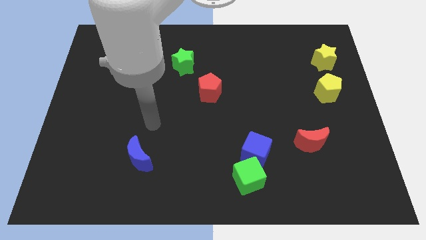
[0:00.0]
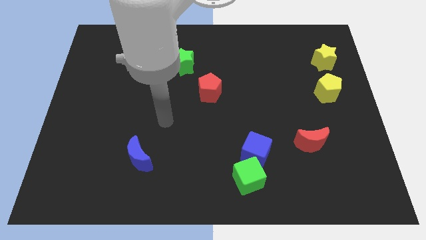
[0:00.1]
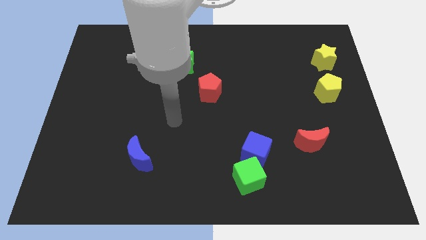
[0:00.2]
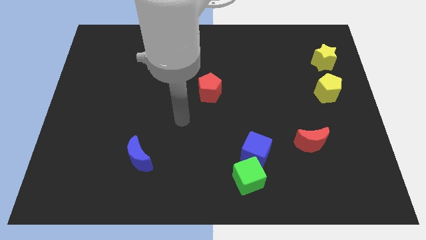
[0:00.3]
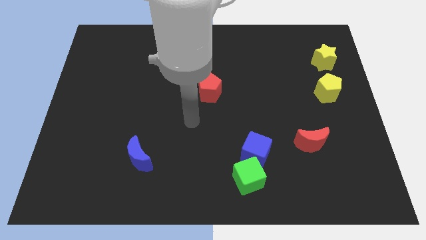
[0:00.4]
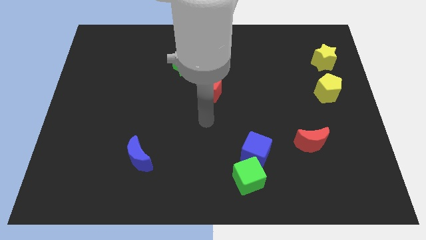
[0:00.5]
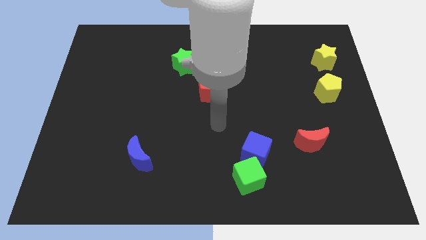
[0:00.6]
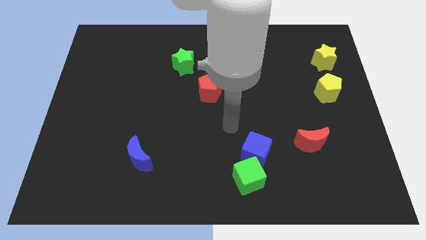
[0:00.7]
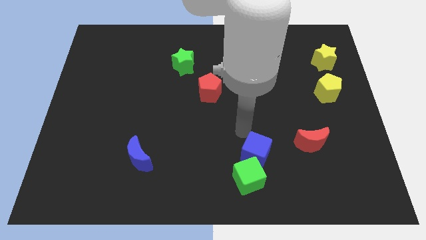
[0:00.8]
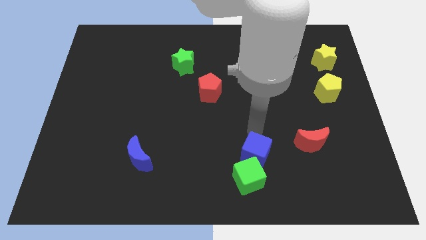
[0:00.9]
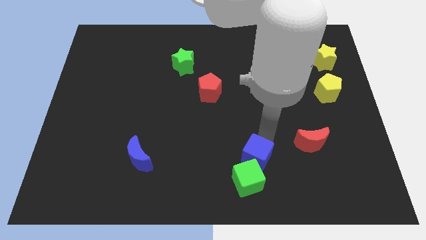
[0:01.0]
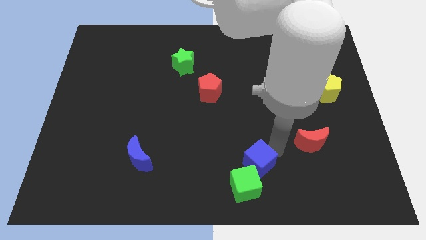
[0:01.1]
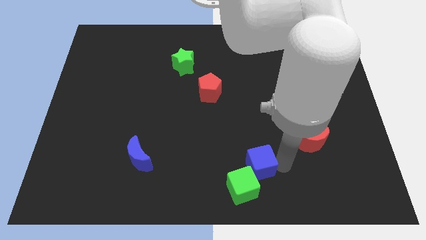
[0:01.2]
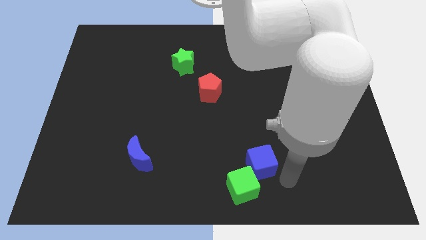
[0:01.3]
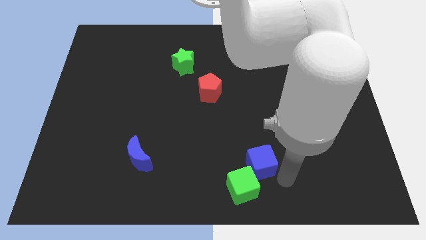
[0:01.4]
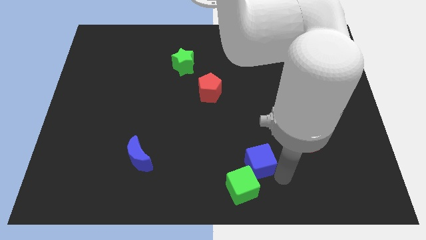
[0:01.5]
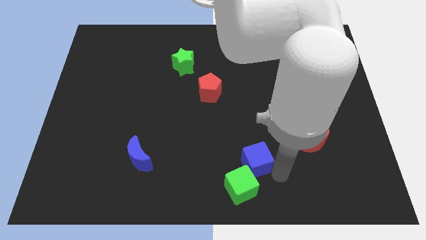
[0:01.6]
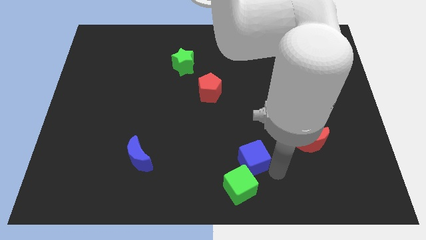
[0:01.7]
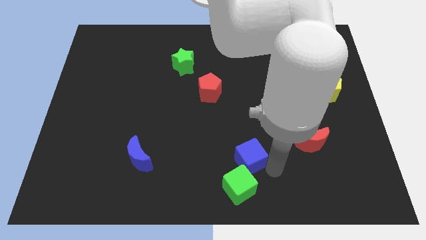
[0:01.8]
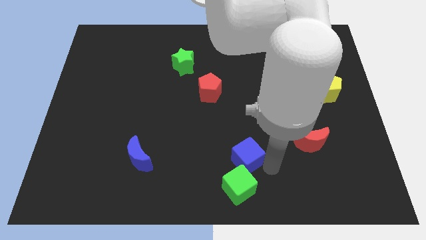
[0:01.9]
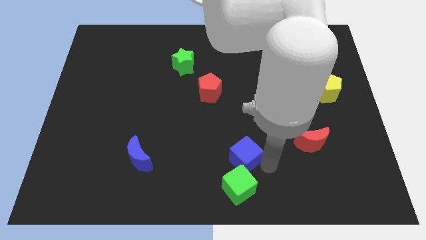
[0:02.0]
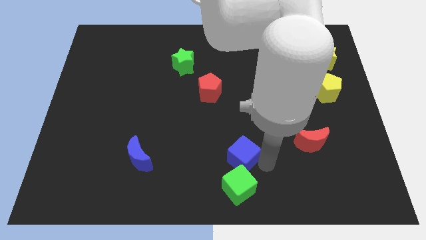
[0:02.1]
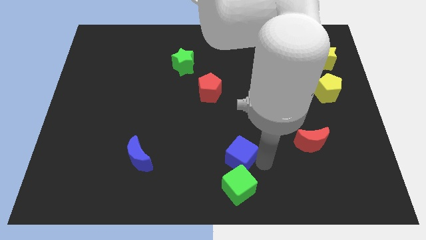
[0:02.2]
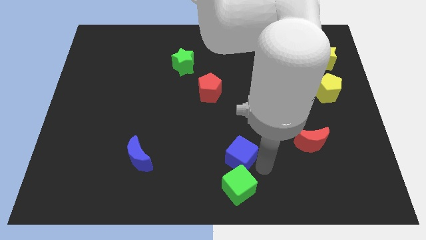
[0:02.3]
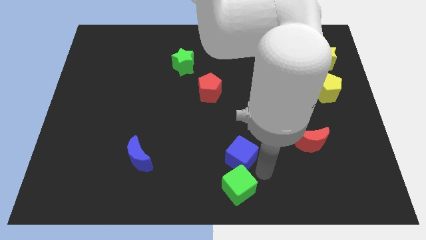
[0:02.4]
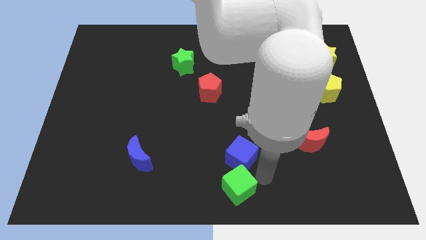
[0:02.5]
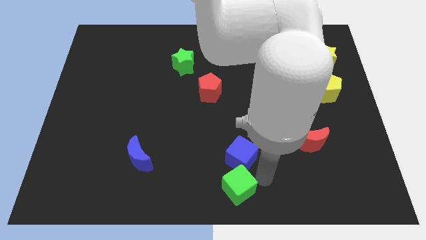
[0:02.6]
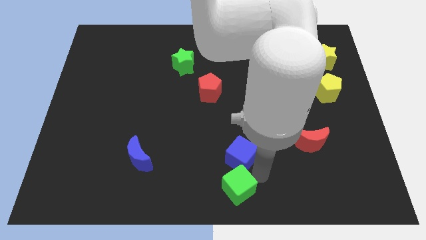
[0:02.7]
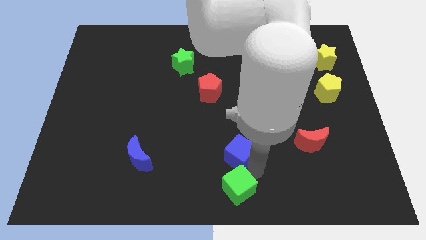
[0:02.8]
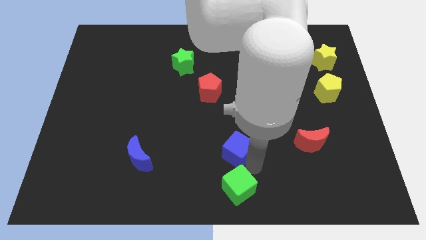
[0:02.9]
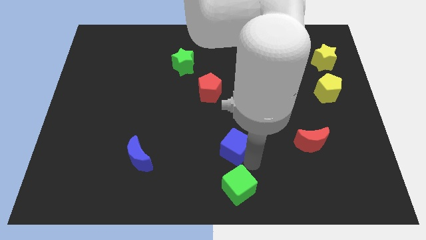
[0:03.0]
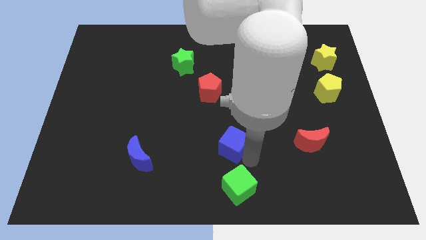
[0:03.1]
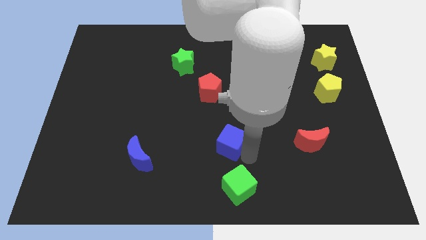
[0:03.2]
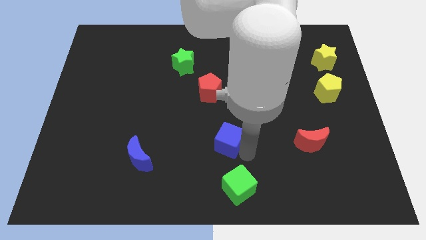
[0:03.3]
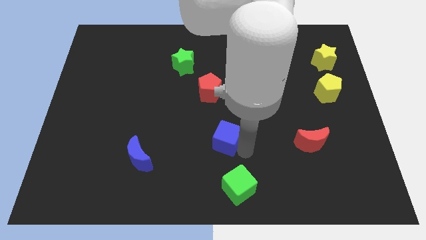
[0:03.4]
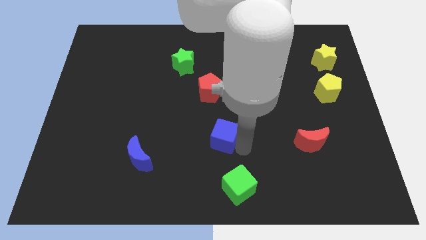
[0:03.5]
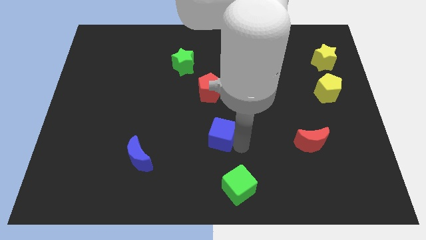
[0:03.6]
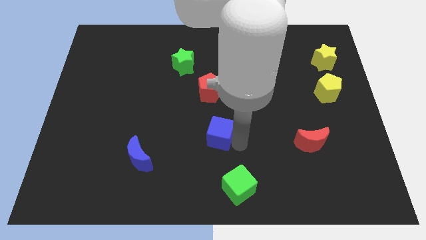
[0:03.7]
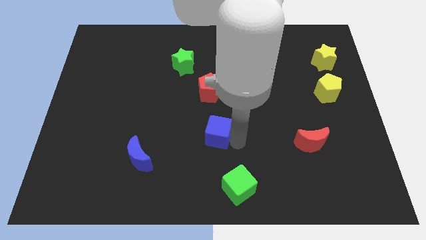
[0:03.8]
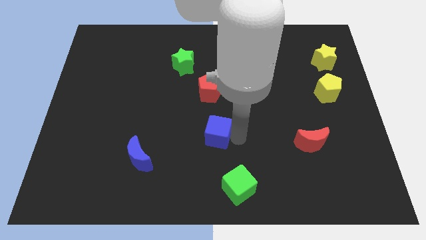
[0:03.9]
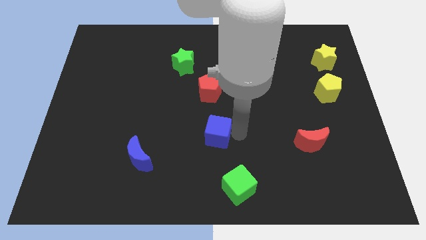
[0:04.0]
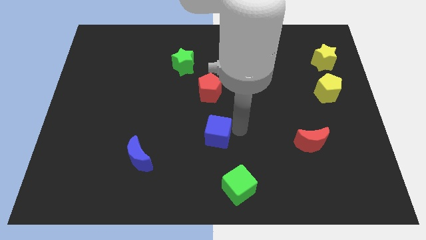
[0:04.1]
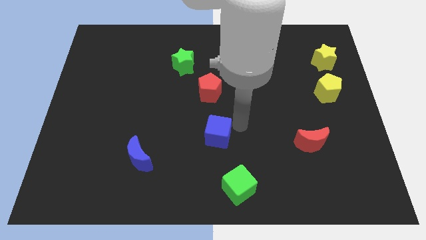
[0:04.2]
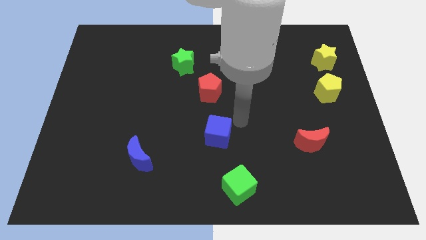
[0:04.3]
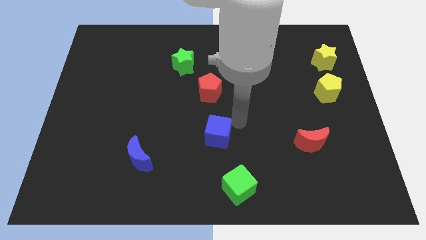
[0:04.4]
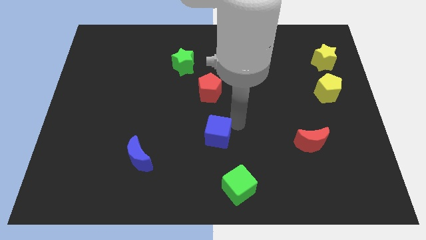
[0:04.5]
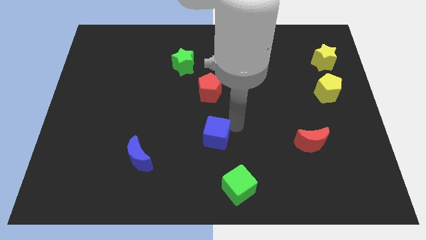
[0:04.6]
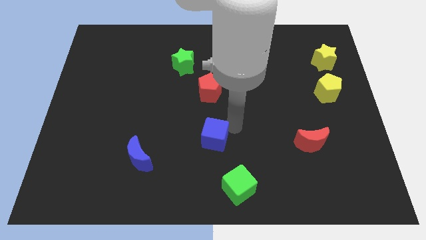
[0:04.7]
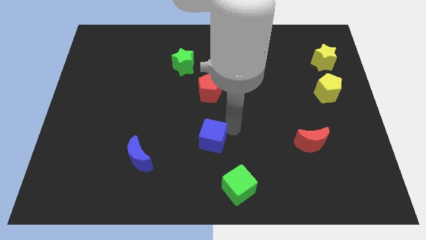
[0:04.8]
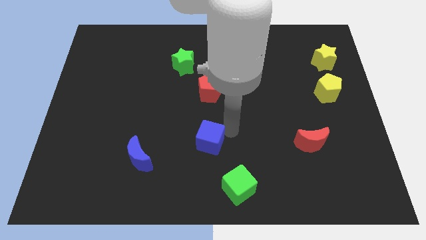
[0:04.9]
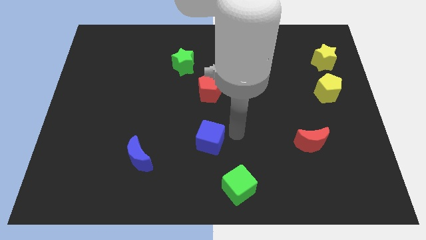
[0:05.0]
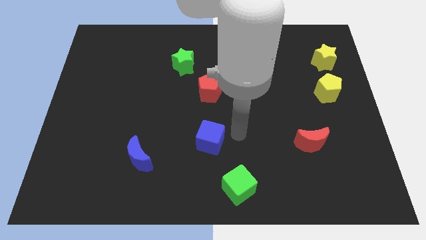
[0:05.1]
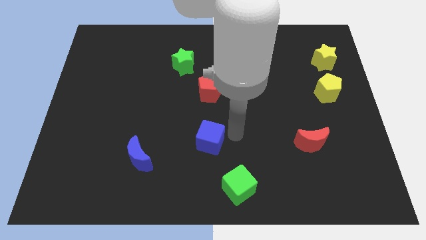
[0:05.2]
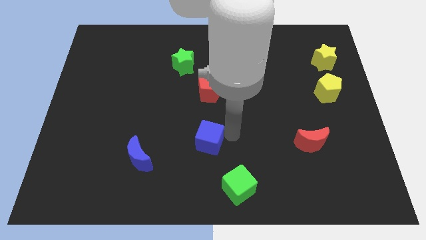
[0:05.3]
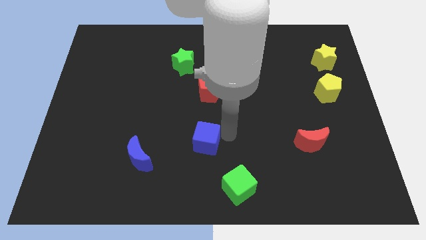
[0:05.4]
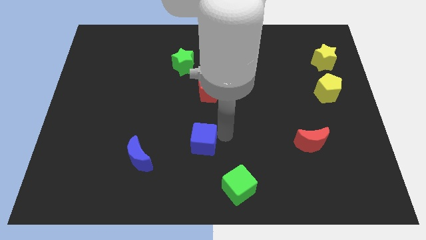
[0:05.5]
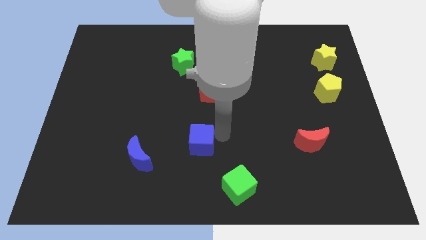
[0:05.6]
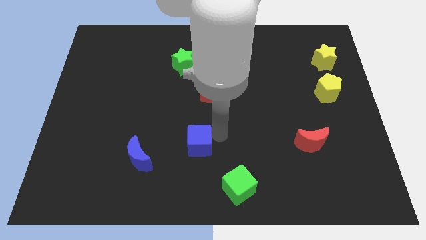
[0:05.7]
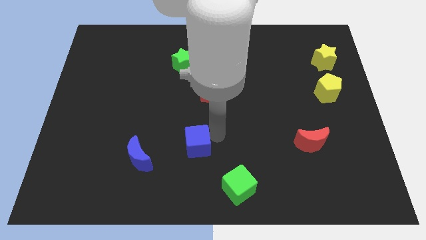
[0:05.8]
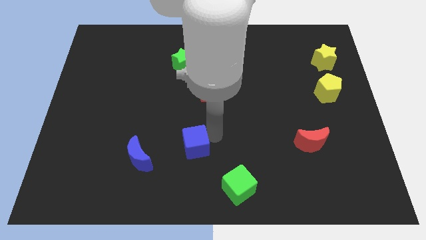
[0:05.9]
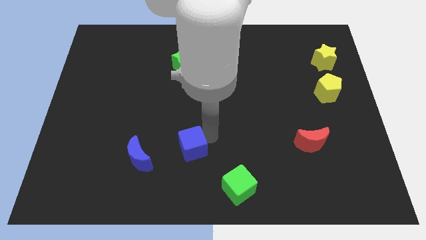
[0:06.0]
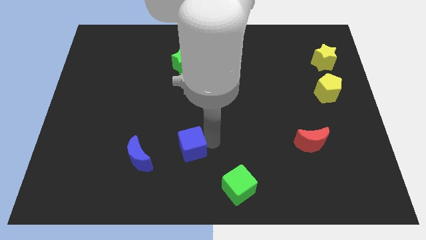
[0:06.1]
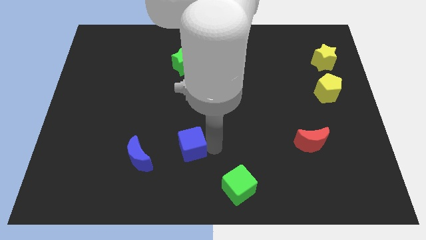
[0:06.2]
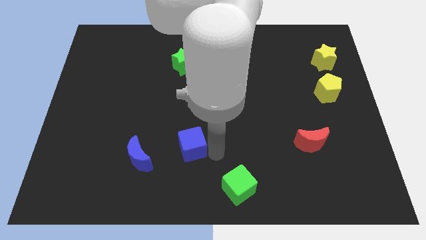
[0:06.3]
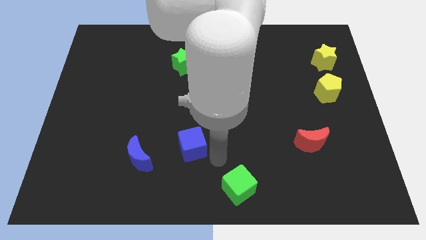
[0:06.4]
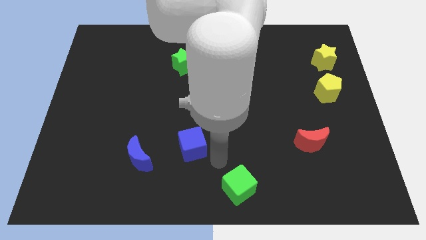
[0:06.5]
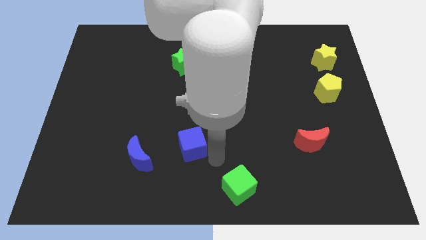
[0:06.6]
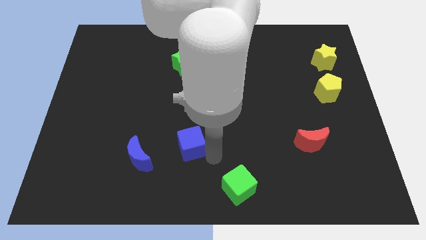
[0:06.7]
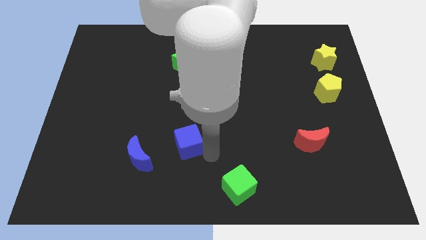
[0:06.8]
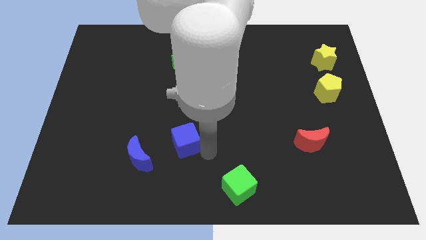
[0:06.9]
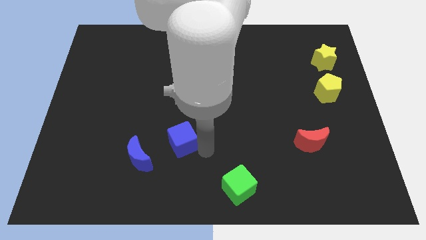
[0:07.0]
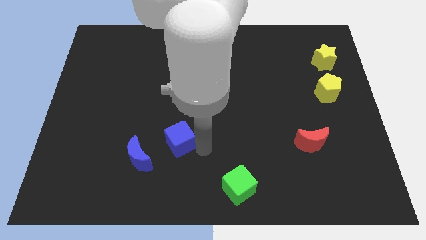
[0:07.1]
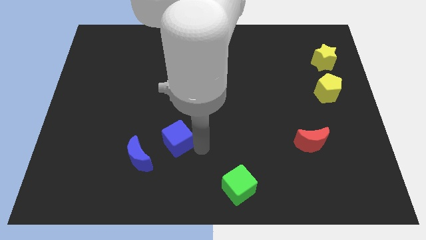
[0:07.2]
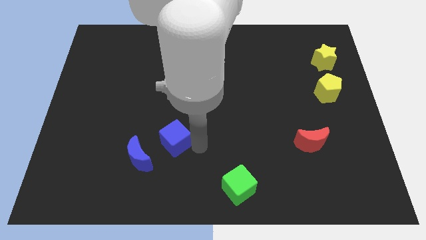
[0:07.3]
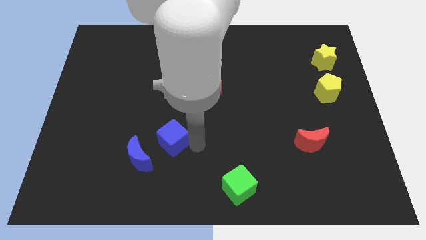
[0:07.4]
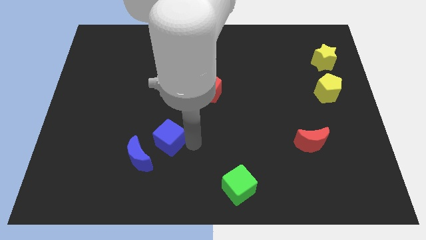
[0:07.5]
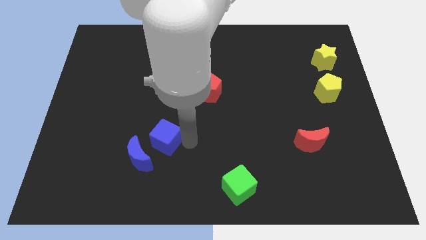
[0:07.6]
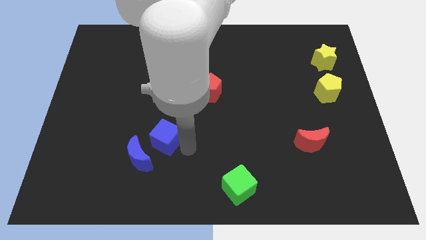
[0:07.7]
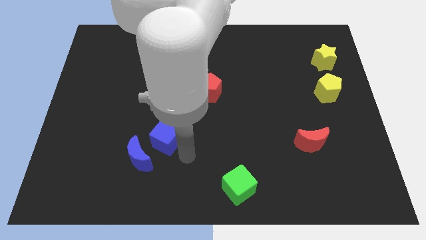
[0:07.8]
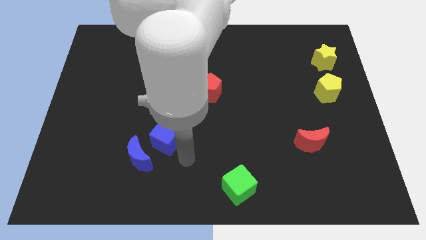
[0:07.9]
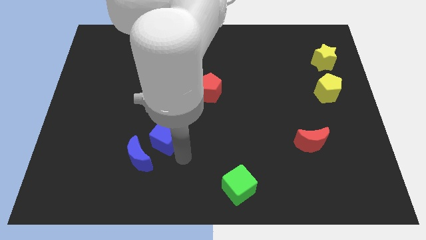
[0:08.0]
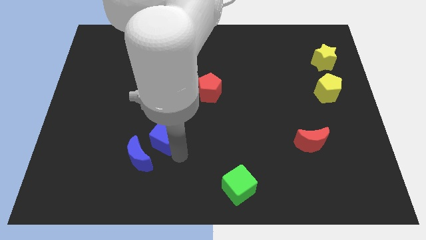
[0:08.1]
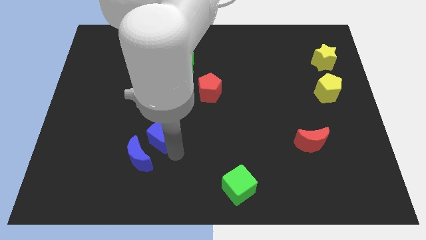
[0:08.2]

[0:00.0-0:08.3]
slide the blue cube above the blue moon
